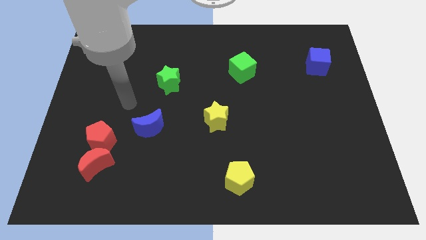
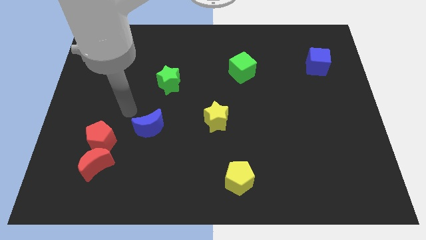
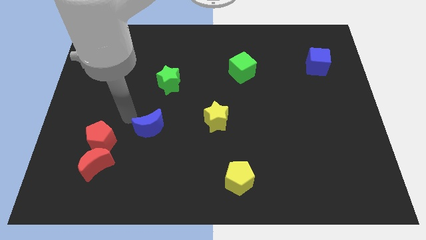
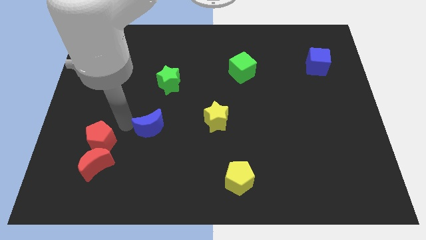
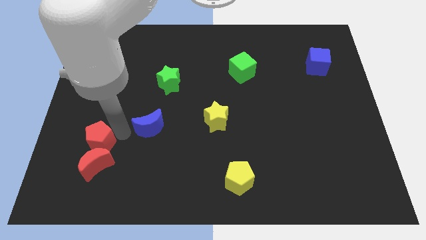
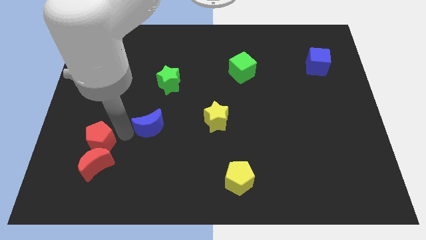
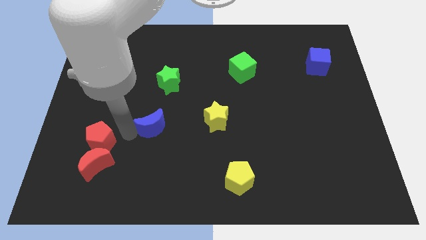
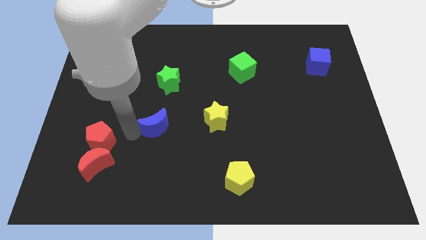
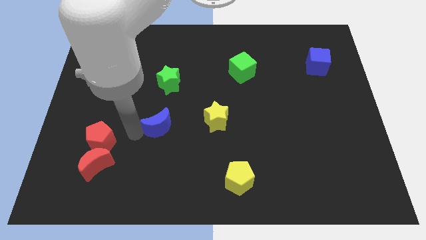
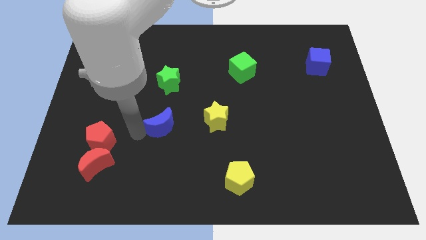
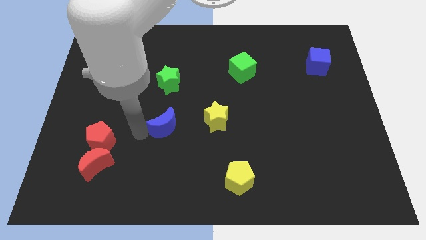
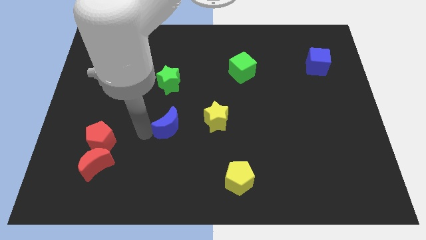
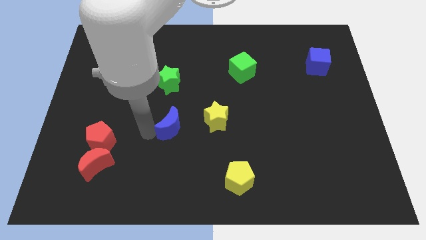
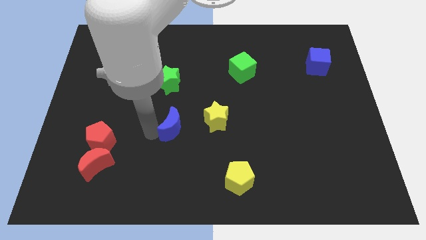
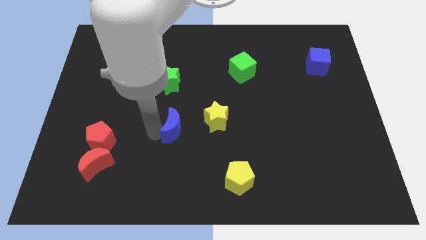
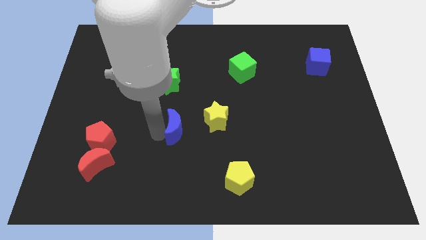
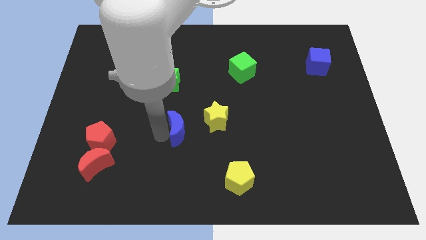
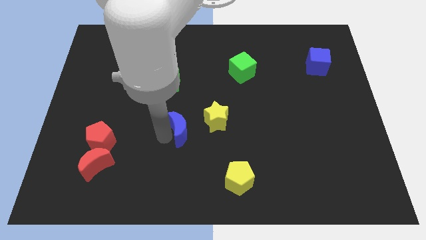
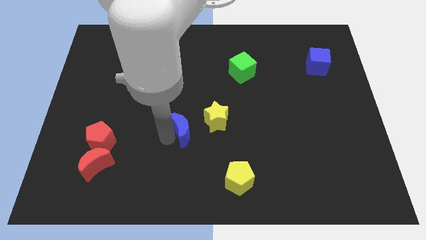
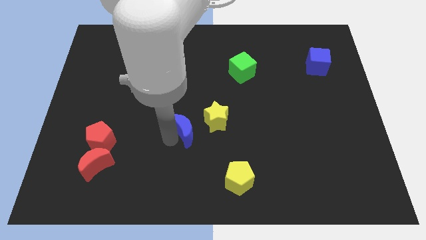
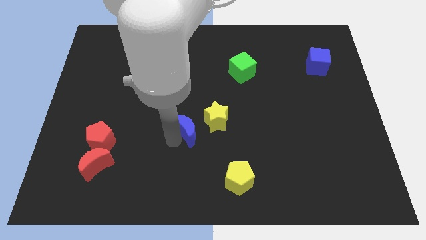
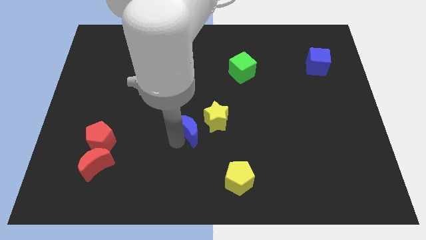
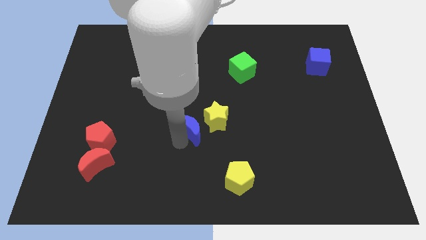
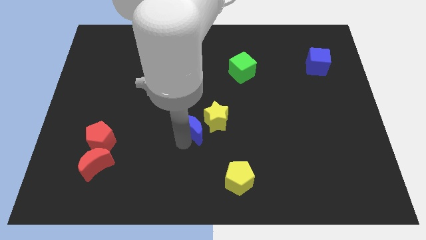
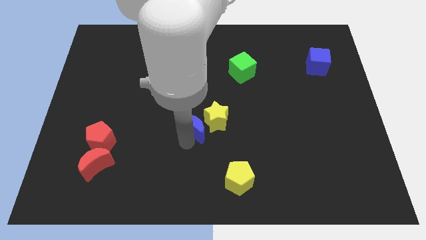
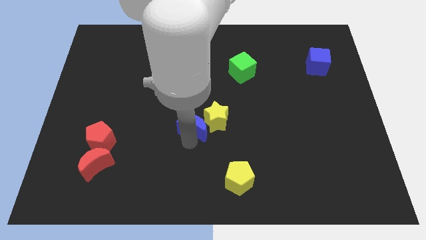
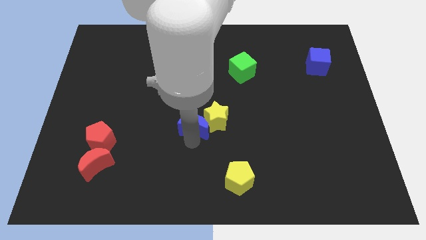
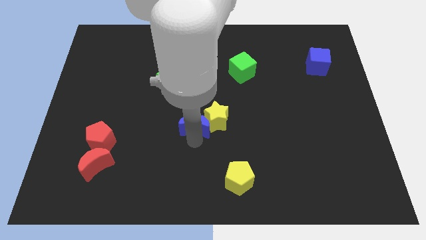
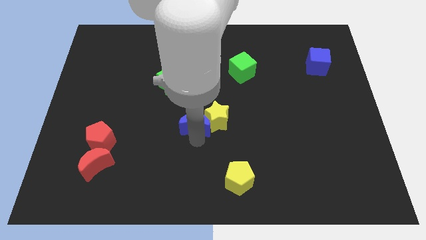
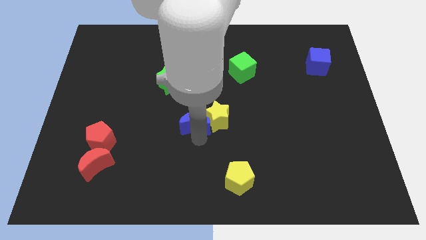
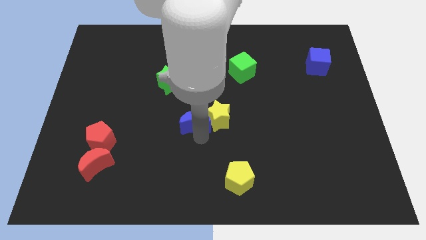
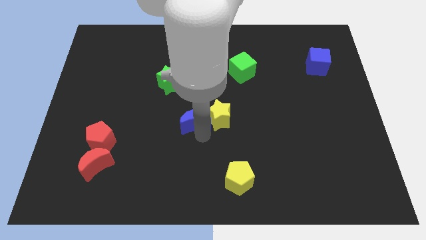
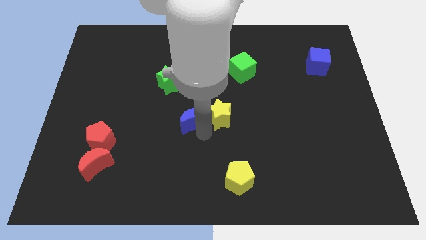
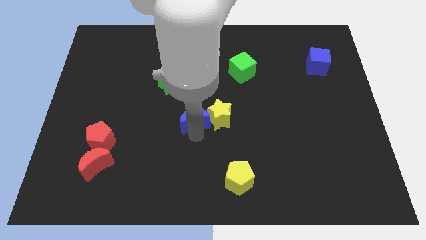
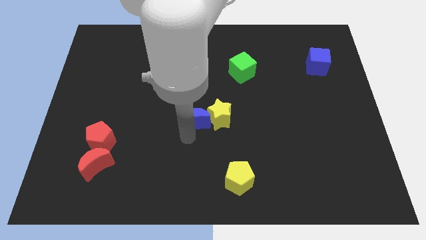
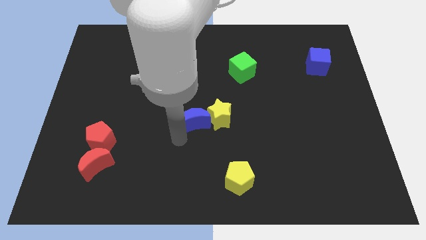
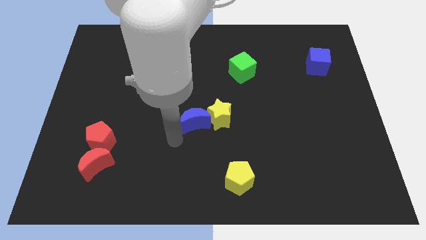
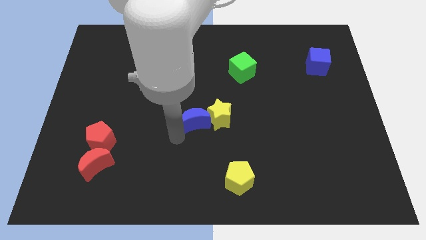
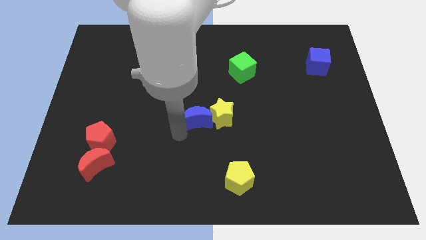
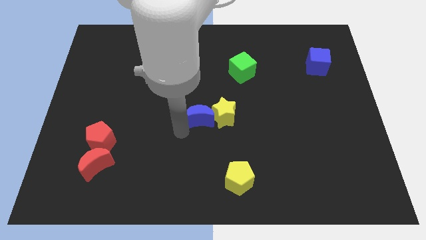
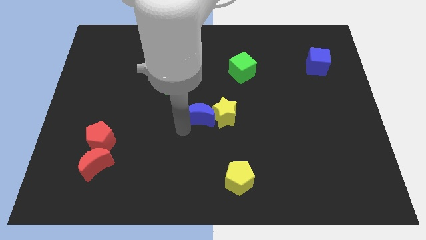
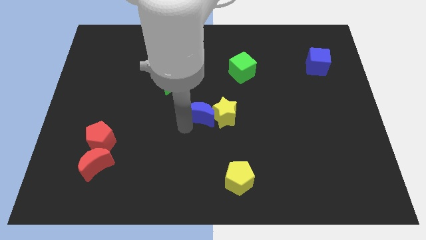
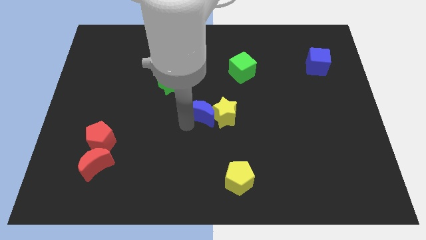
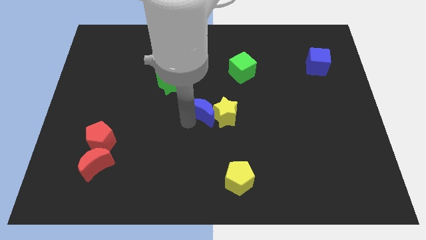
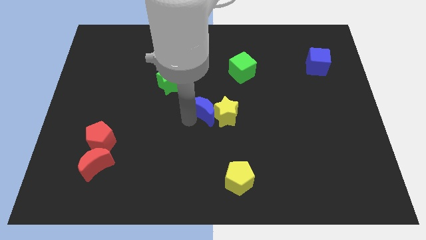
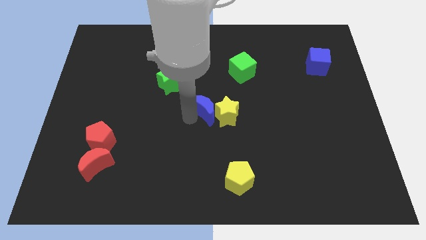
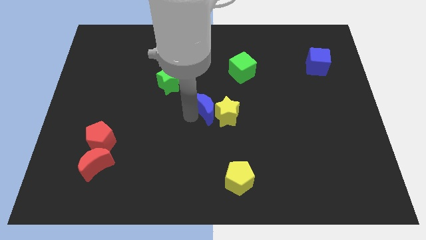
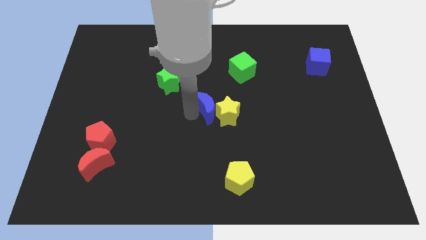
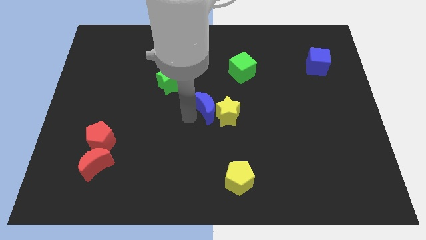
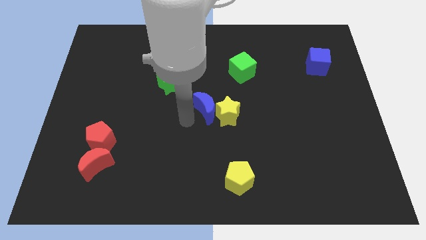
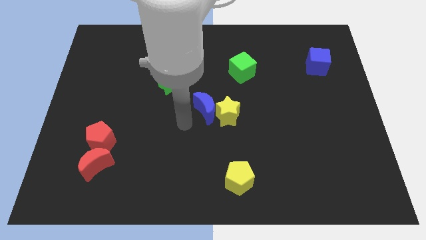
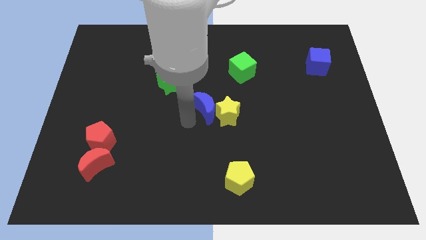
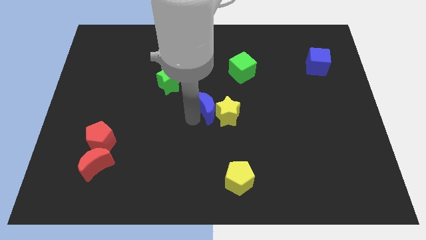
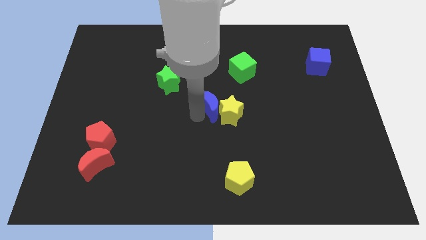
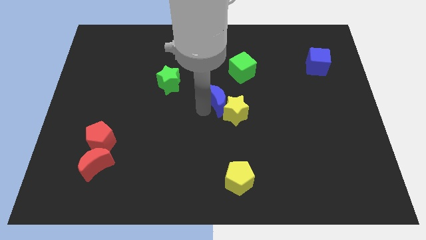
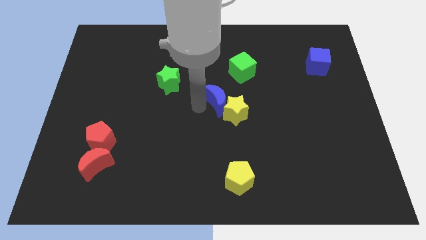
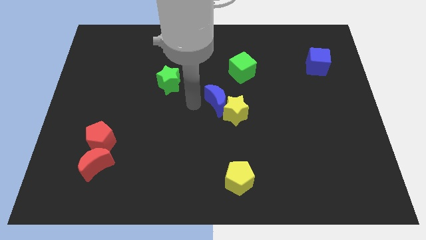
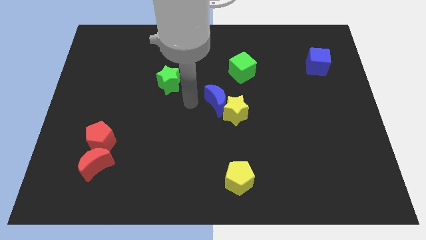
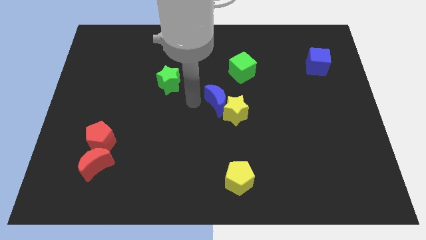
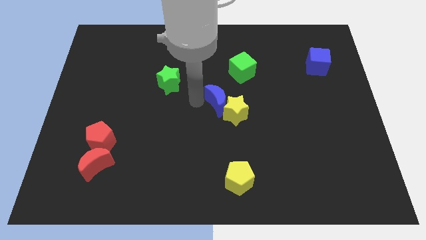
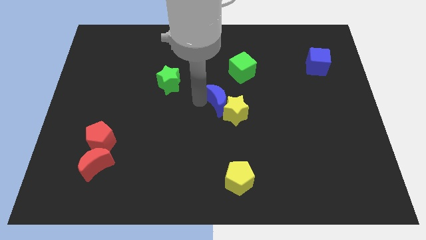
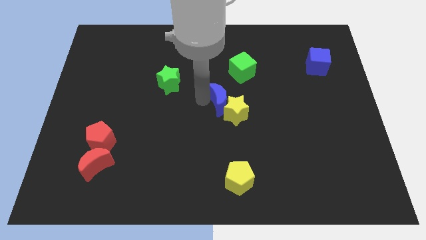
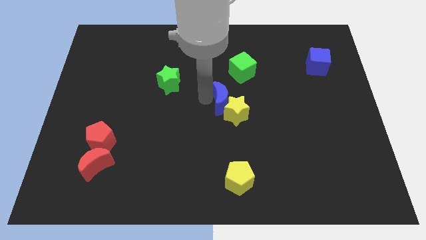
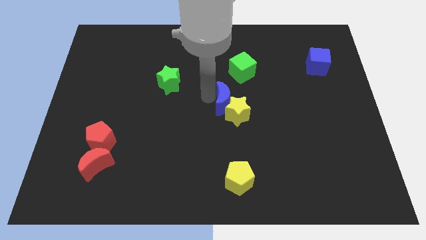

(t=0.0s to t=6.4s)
push the blue moon to the bottom of the green cube

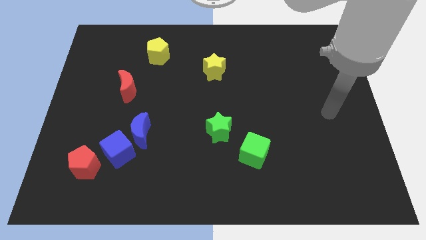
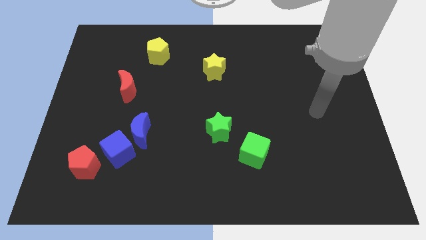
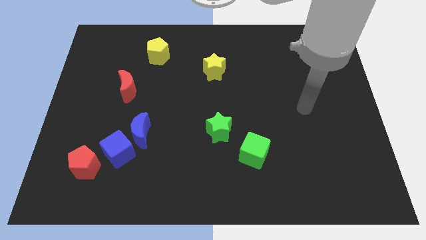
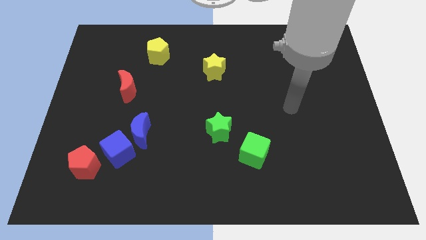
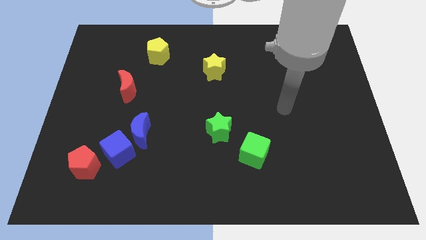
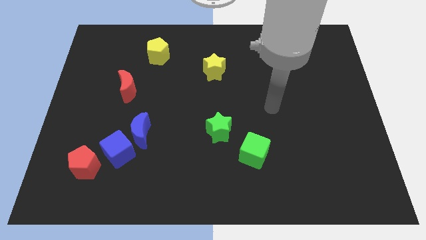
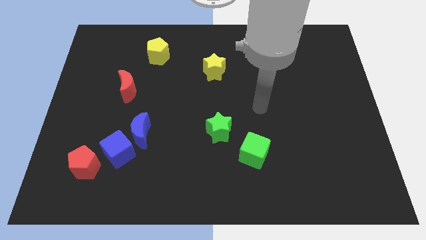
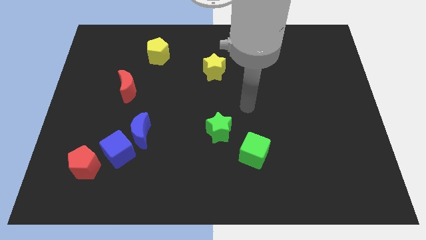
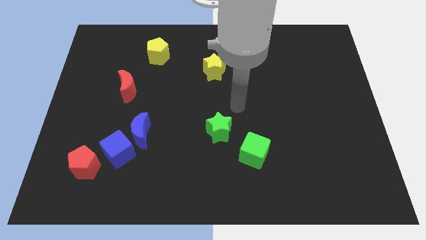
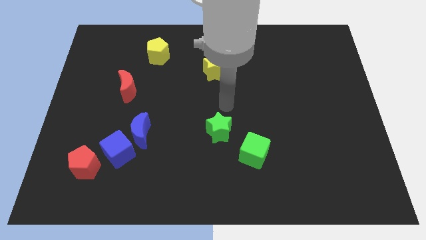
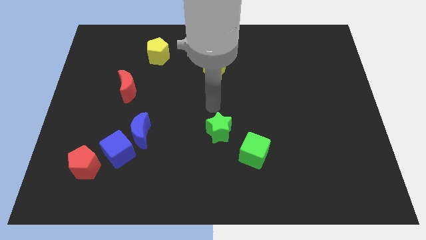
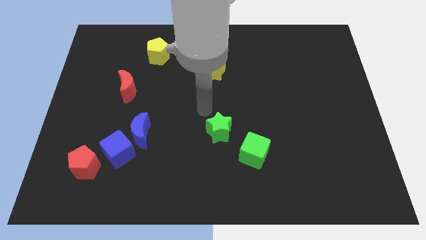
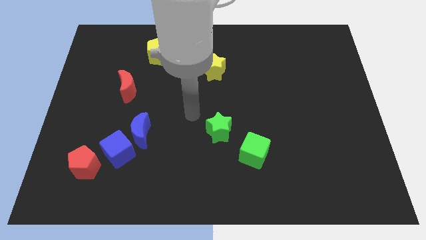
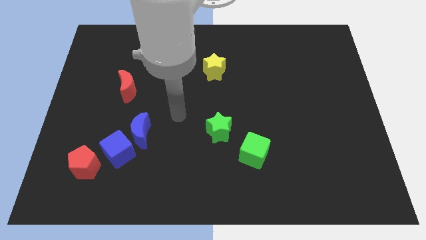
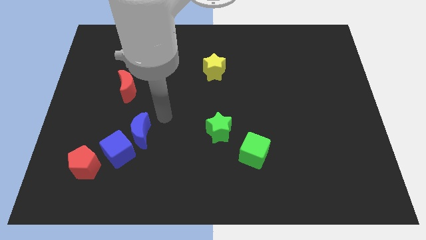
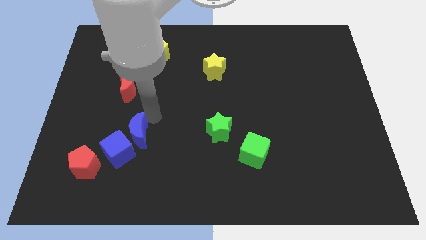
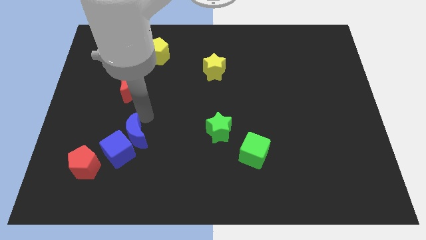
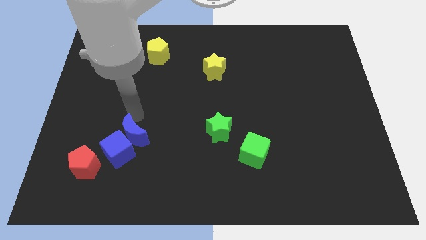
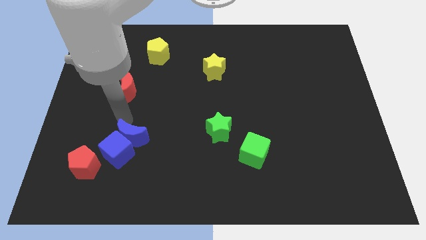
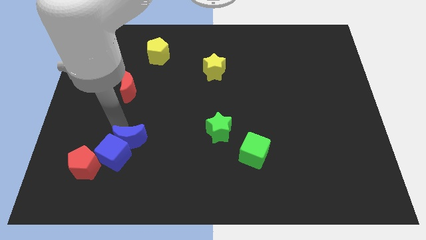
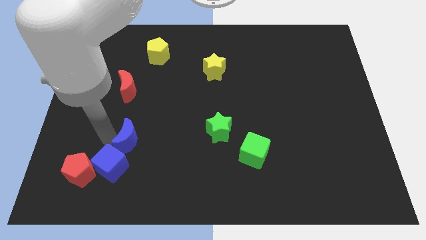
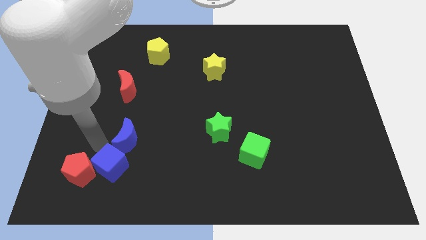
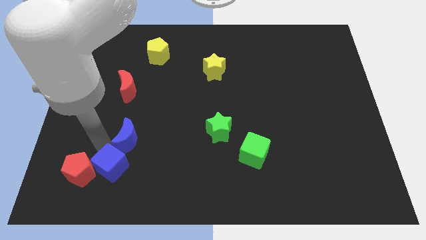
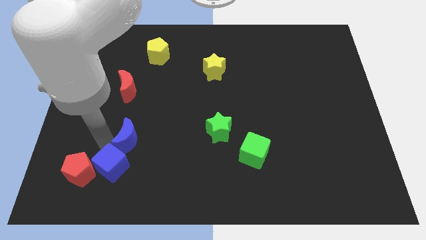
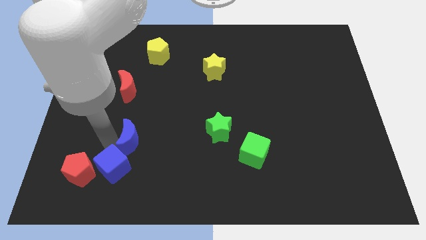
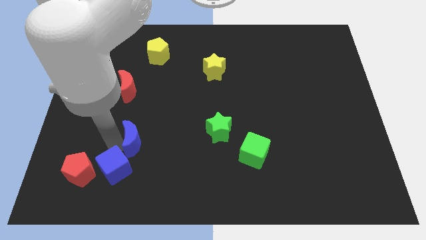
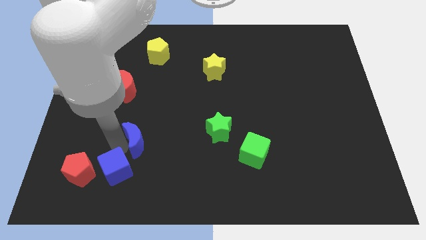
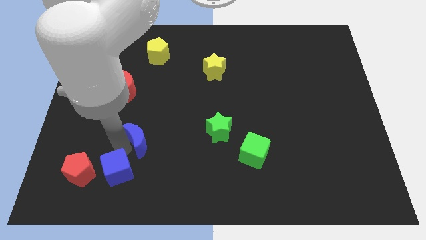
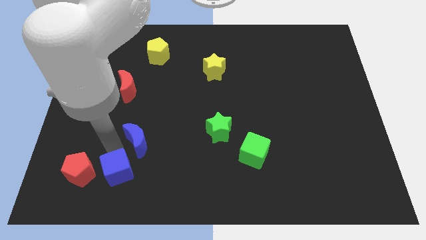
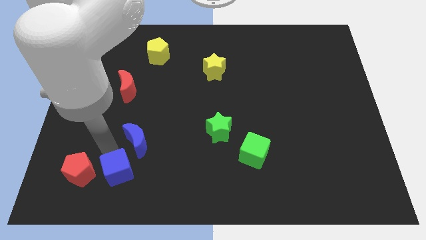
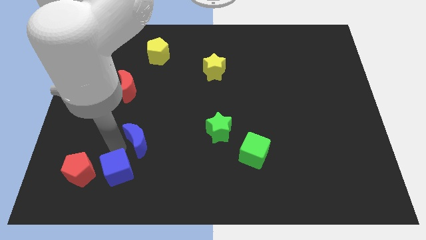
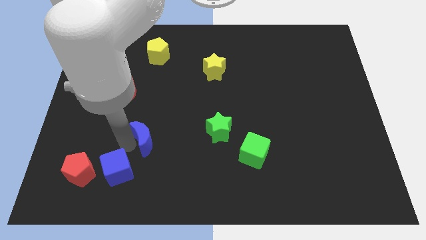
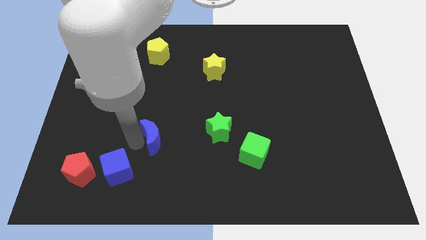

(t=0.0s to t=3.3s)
slide the blue moon to the left side of the green star
